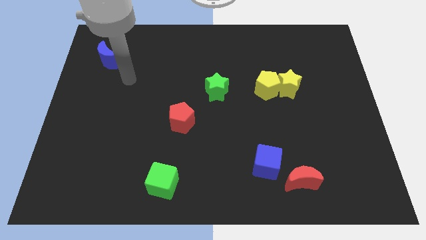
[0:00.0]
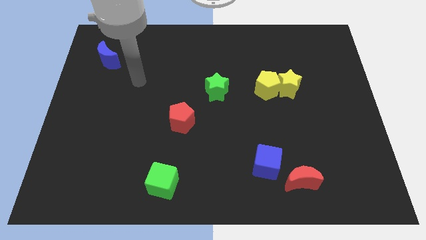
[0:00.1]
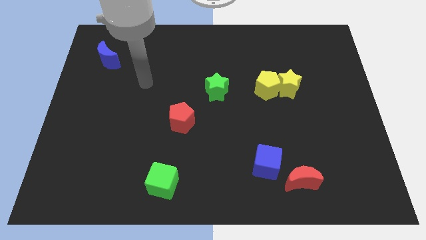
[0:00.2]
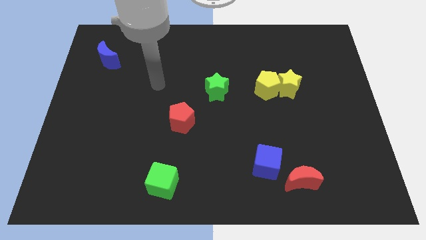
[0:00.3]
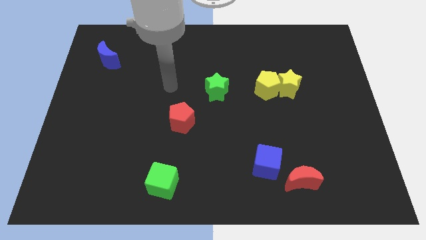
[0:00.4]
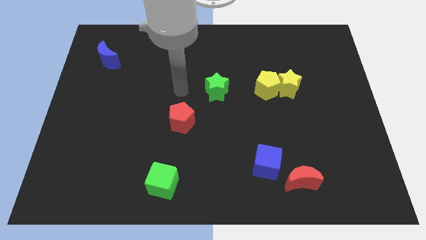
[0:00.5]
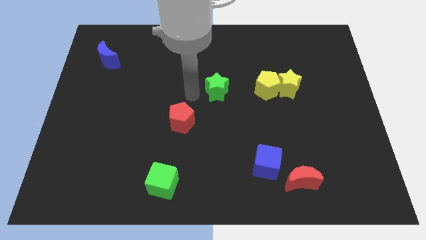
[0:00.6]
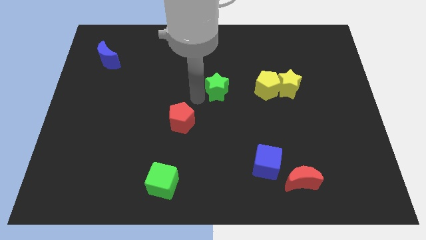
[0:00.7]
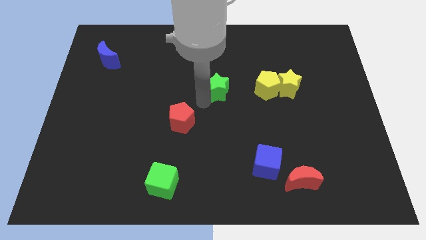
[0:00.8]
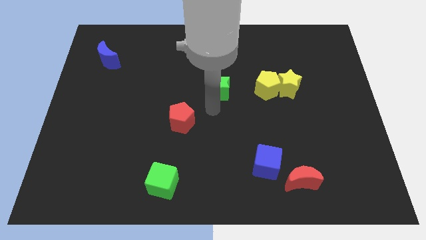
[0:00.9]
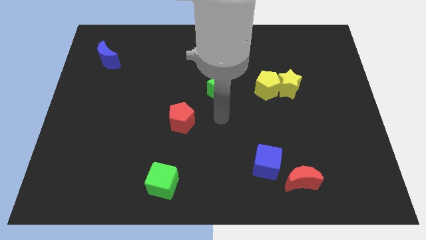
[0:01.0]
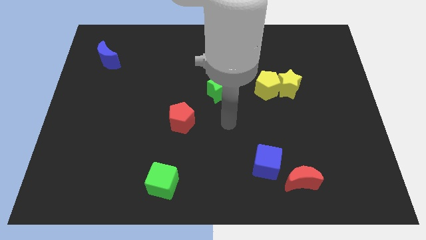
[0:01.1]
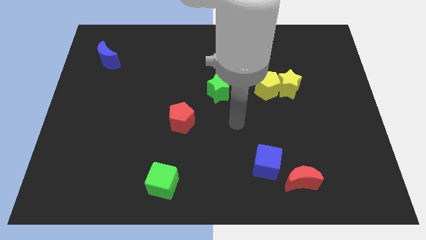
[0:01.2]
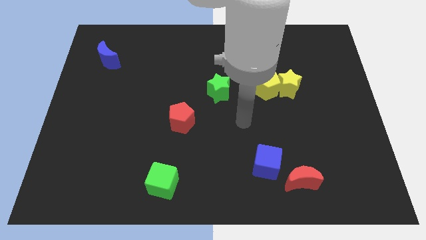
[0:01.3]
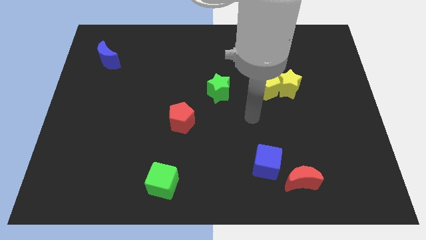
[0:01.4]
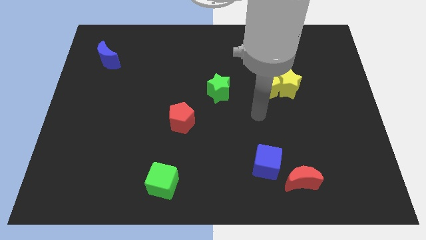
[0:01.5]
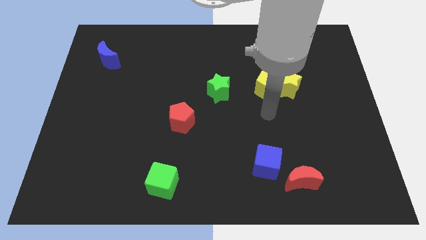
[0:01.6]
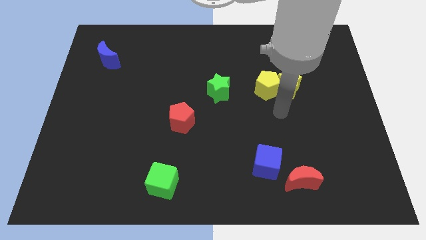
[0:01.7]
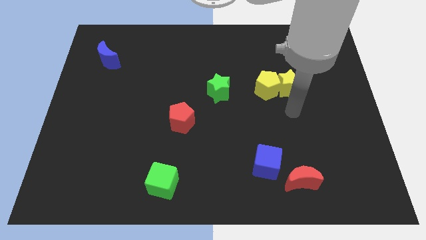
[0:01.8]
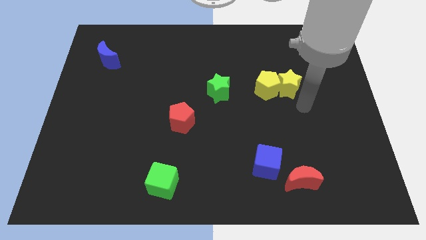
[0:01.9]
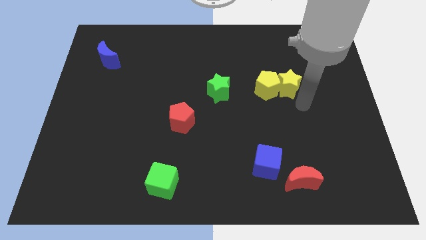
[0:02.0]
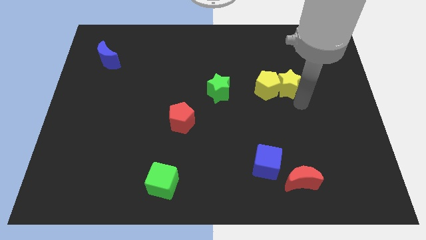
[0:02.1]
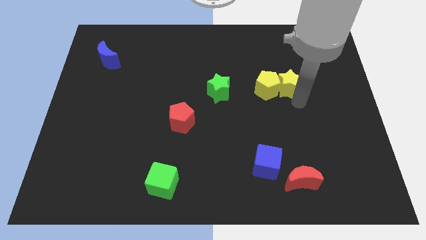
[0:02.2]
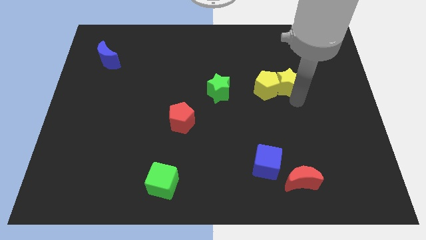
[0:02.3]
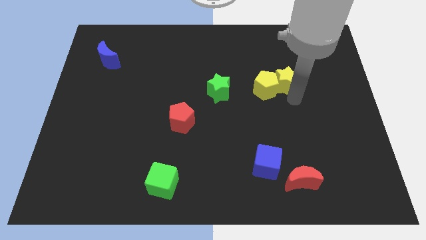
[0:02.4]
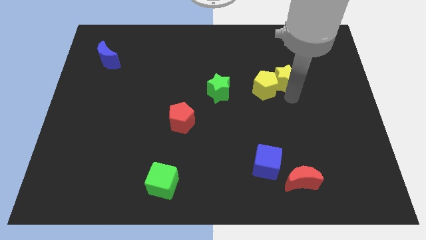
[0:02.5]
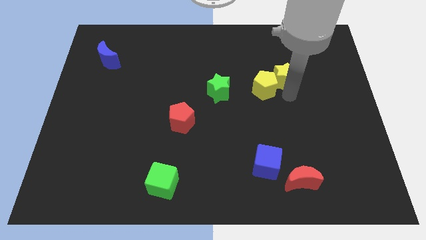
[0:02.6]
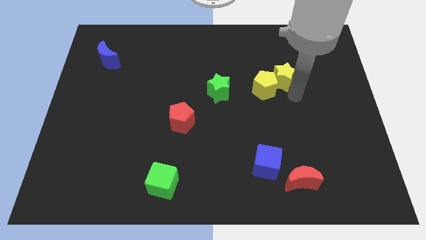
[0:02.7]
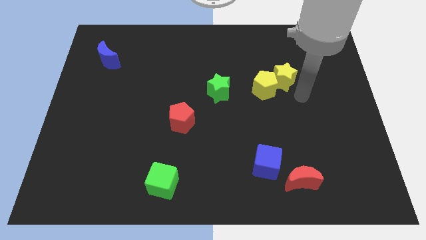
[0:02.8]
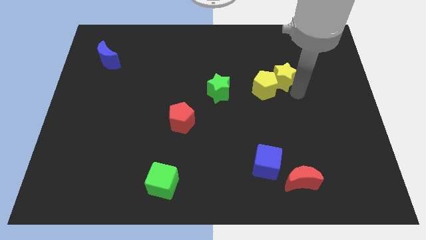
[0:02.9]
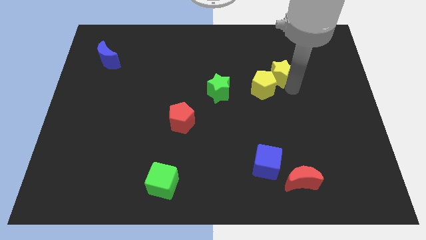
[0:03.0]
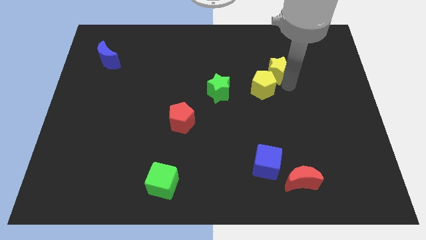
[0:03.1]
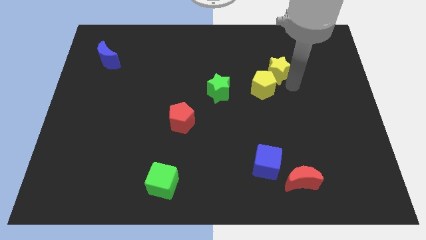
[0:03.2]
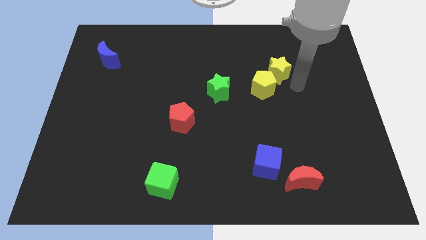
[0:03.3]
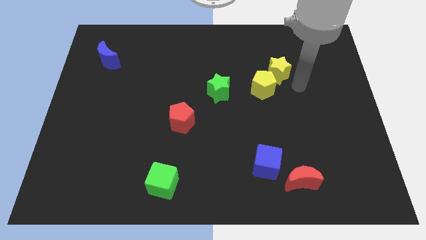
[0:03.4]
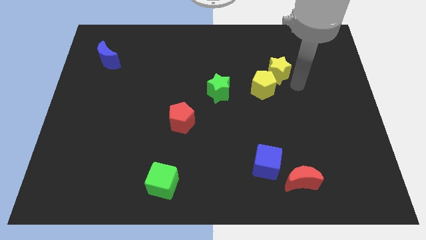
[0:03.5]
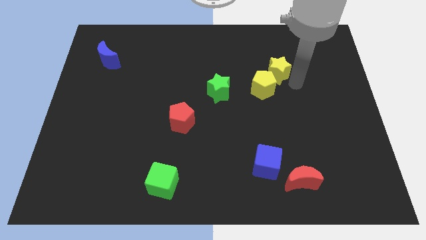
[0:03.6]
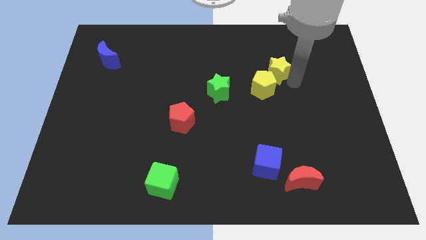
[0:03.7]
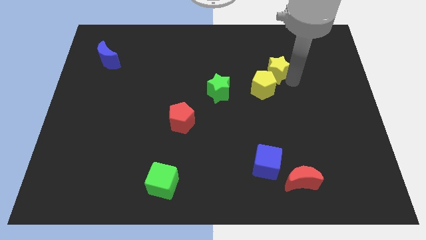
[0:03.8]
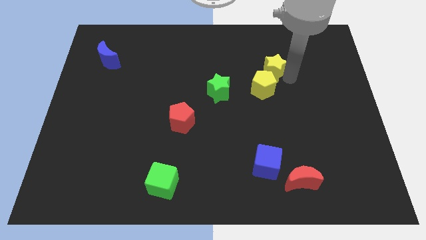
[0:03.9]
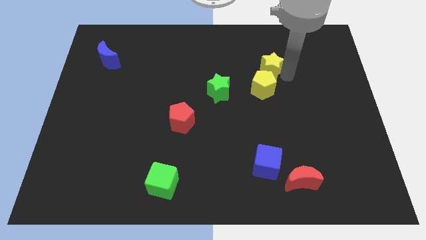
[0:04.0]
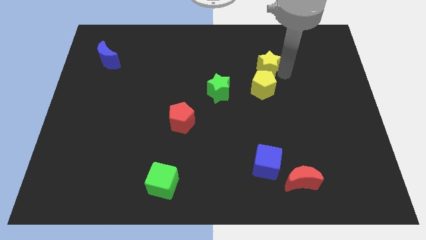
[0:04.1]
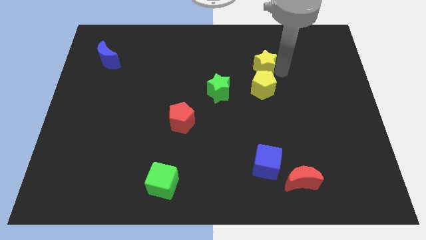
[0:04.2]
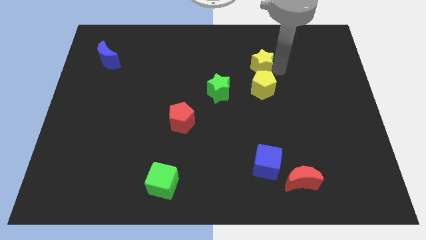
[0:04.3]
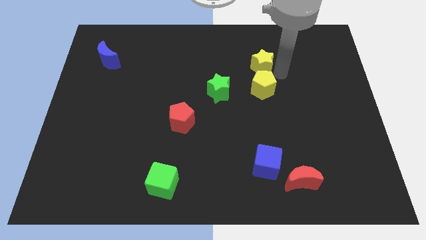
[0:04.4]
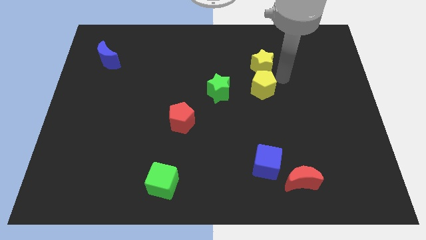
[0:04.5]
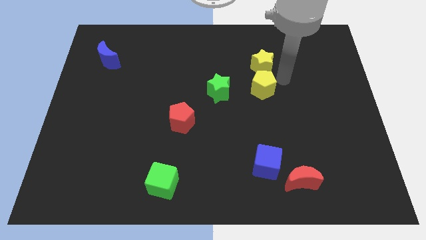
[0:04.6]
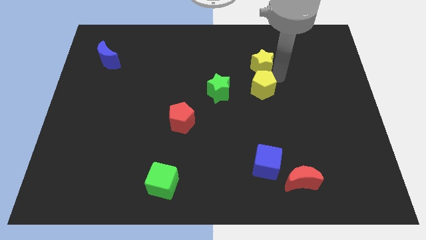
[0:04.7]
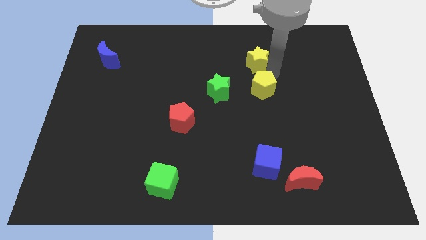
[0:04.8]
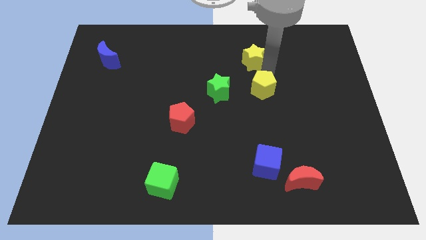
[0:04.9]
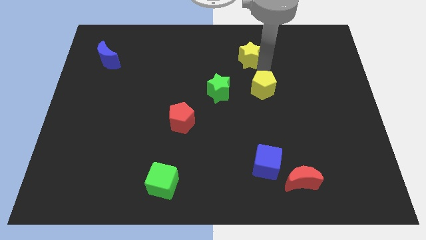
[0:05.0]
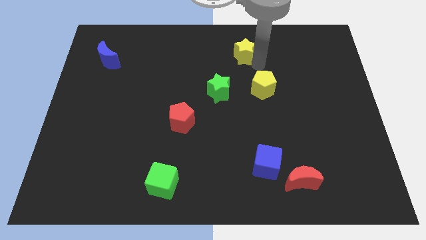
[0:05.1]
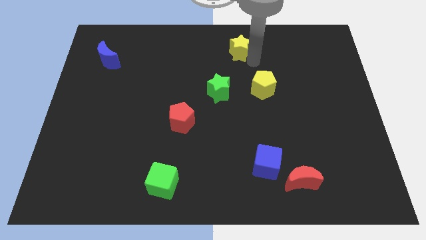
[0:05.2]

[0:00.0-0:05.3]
push the yellow star to the top

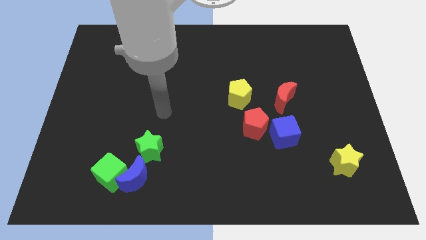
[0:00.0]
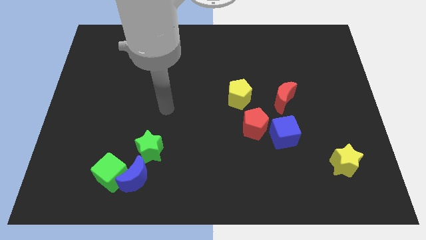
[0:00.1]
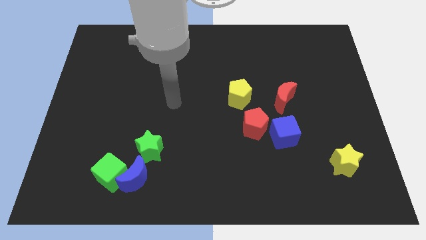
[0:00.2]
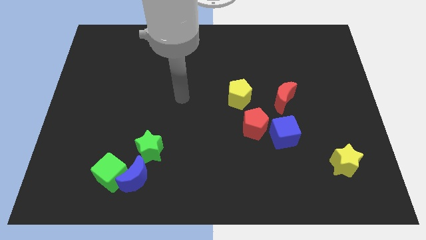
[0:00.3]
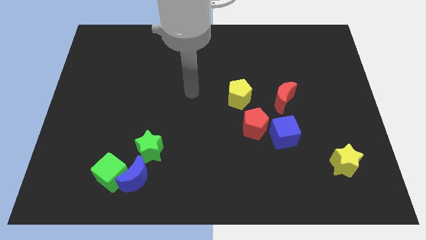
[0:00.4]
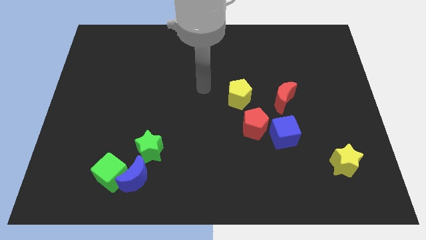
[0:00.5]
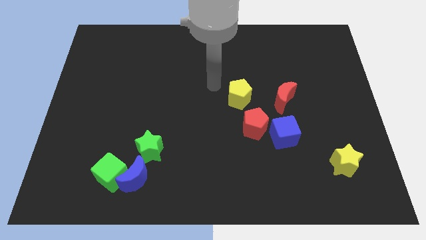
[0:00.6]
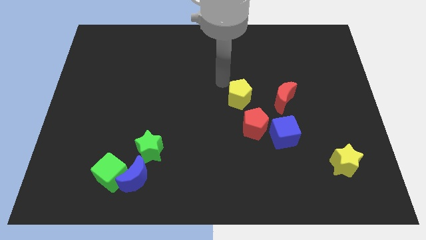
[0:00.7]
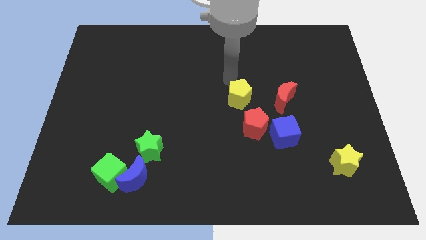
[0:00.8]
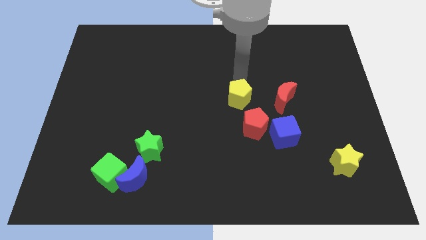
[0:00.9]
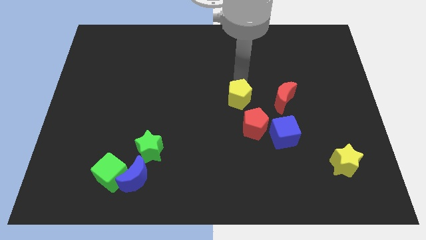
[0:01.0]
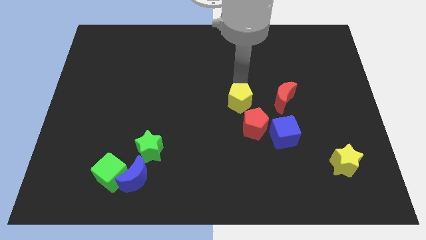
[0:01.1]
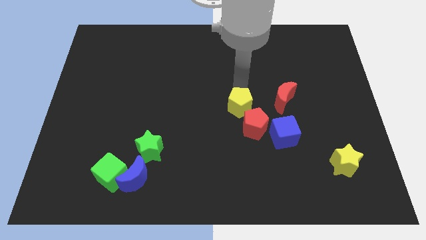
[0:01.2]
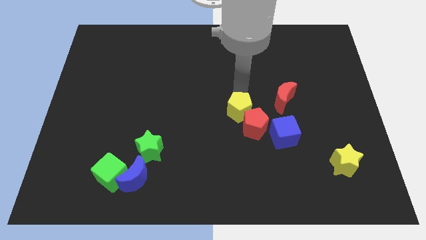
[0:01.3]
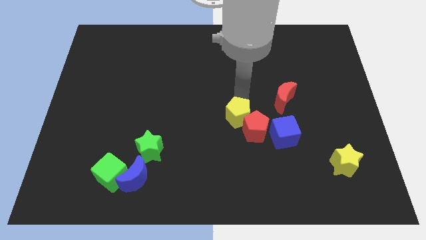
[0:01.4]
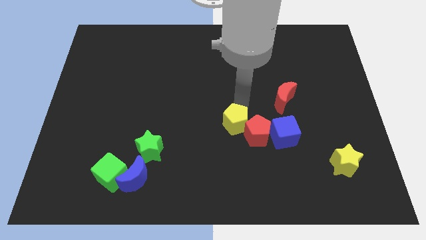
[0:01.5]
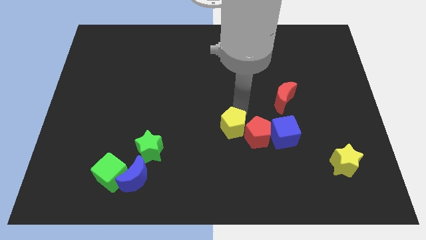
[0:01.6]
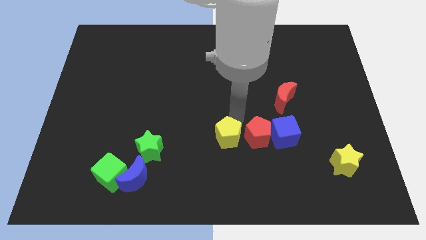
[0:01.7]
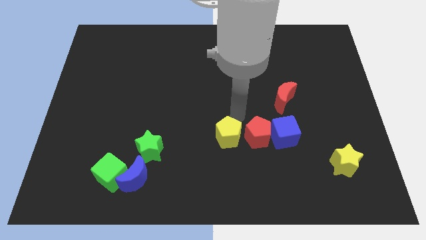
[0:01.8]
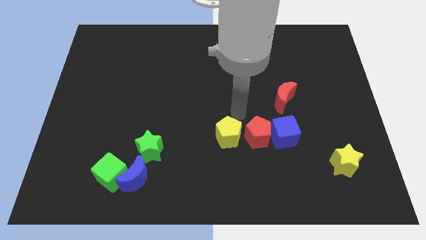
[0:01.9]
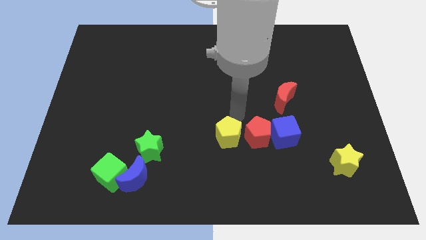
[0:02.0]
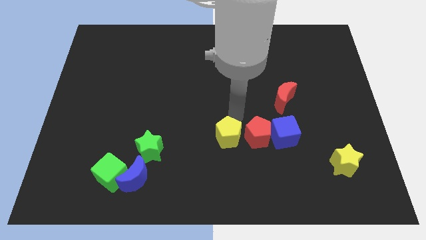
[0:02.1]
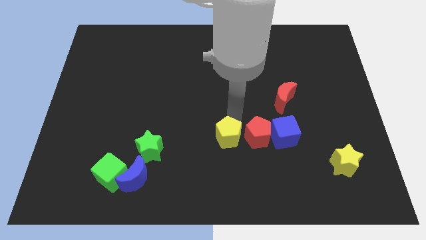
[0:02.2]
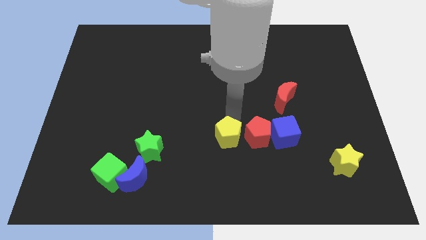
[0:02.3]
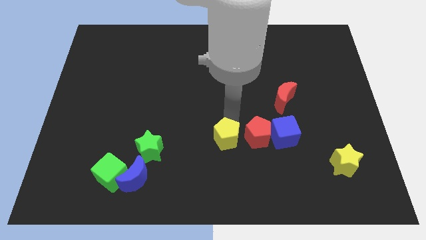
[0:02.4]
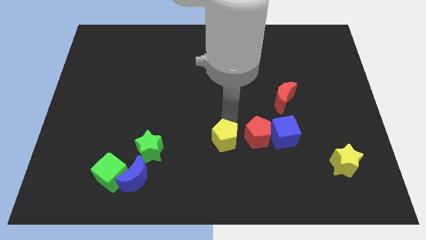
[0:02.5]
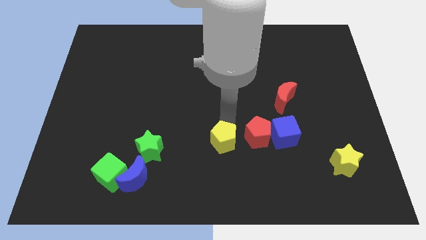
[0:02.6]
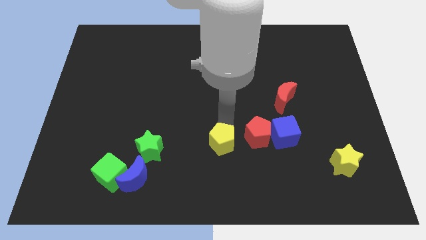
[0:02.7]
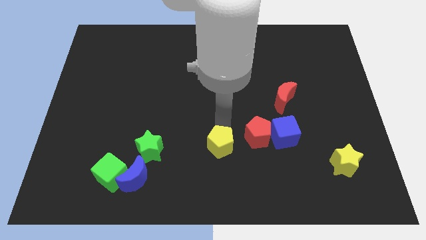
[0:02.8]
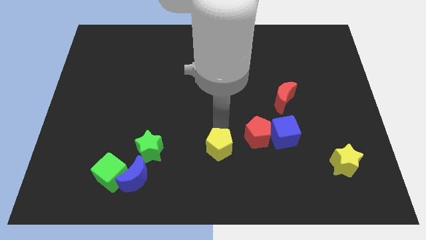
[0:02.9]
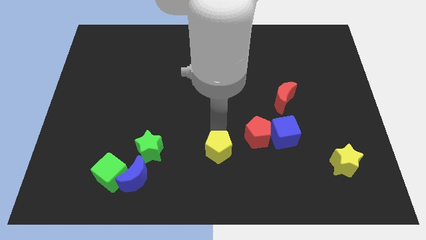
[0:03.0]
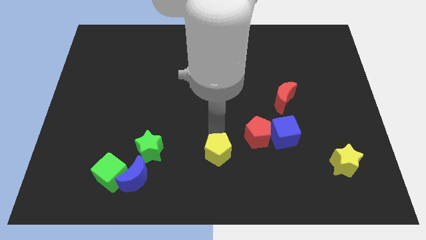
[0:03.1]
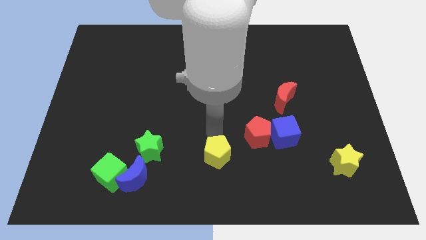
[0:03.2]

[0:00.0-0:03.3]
move the yellow pentagon to the bottom side
